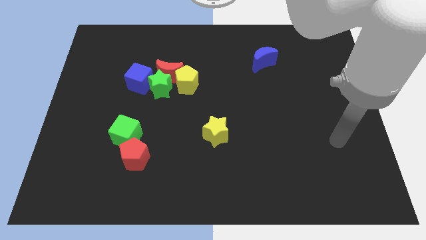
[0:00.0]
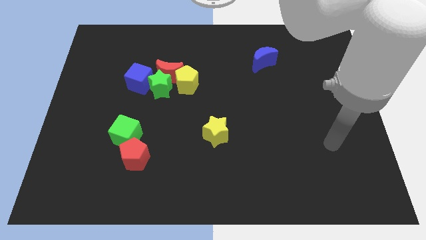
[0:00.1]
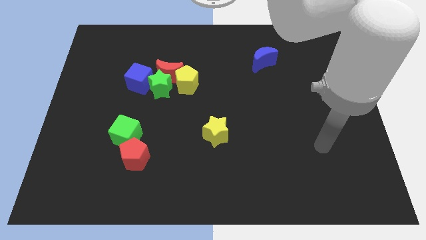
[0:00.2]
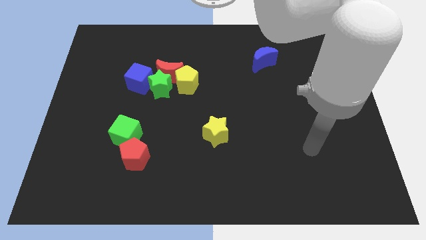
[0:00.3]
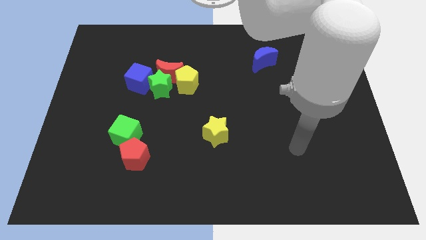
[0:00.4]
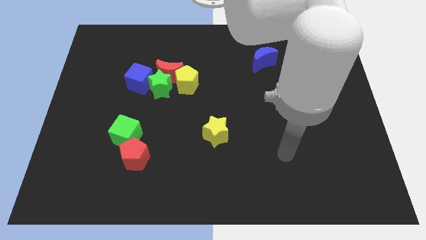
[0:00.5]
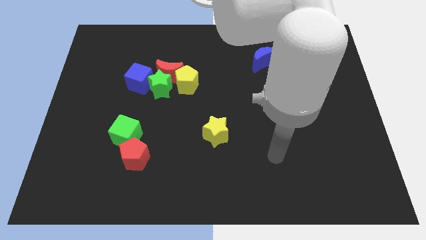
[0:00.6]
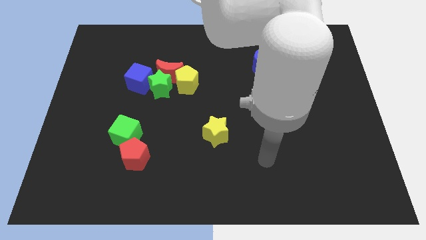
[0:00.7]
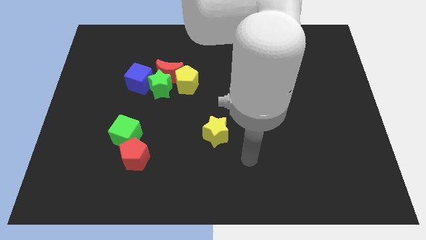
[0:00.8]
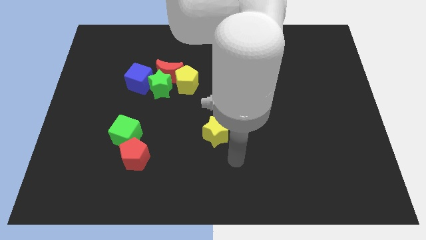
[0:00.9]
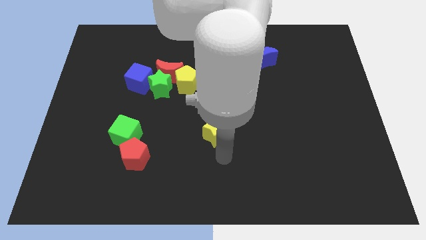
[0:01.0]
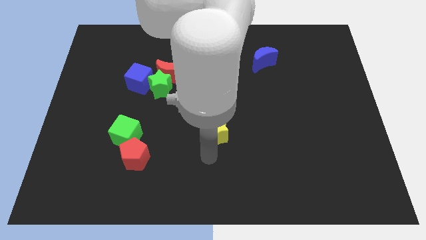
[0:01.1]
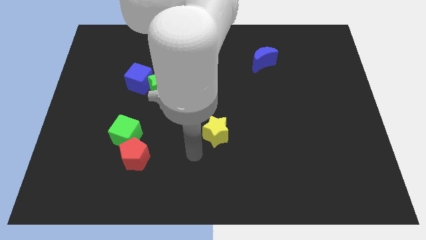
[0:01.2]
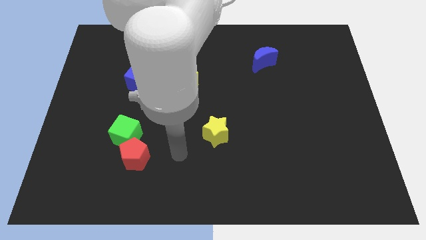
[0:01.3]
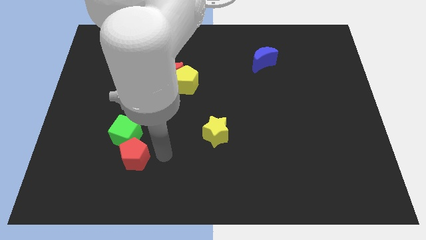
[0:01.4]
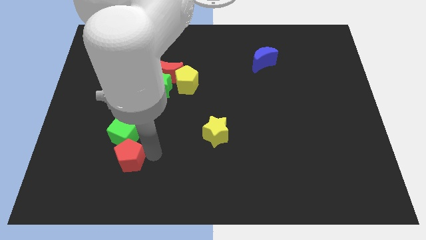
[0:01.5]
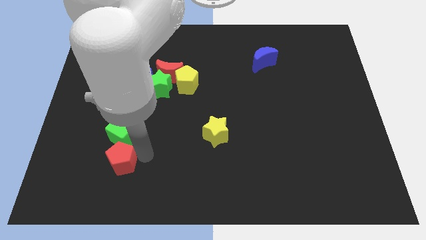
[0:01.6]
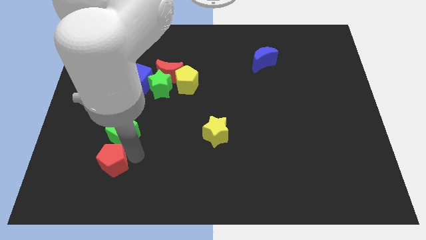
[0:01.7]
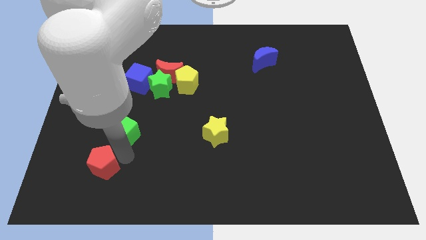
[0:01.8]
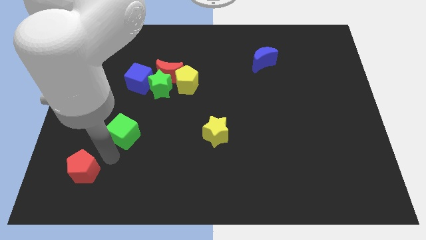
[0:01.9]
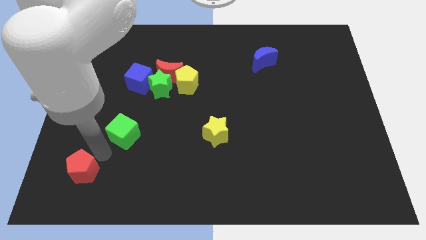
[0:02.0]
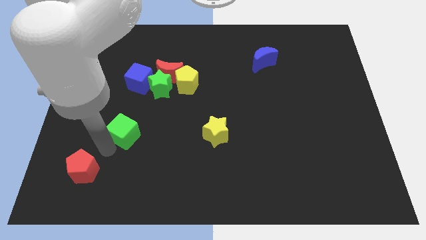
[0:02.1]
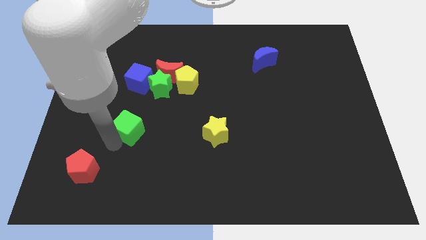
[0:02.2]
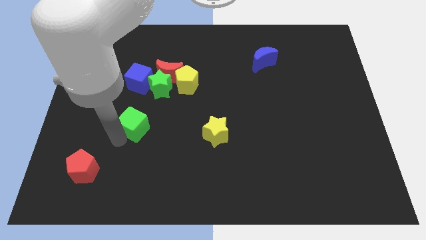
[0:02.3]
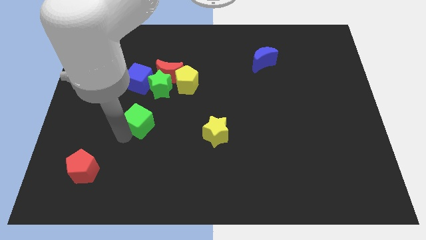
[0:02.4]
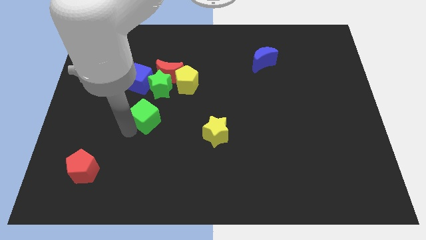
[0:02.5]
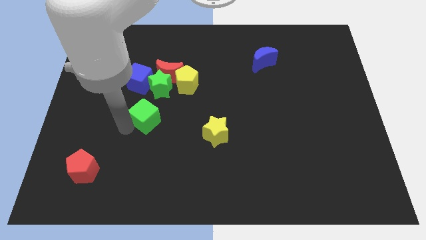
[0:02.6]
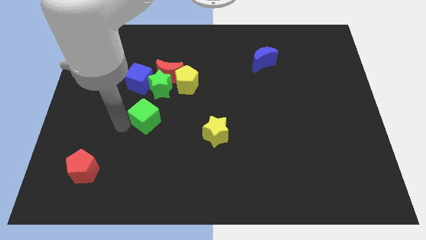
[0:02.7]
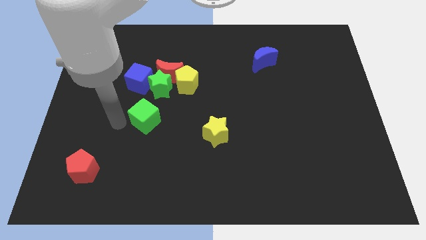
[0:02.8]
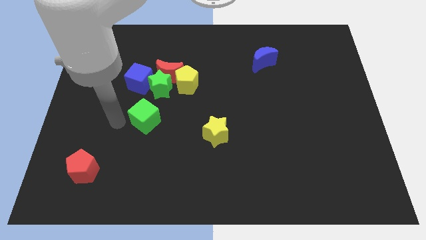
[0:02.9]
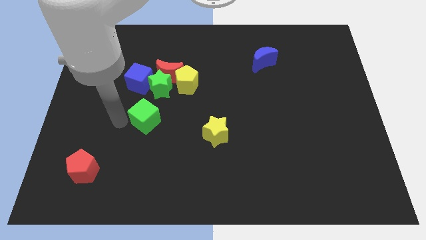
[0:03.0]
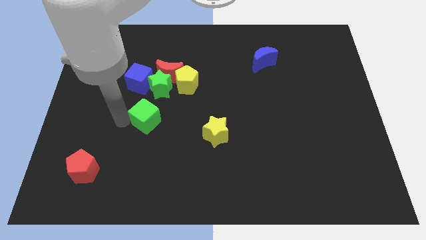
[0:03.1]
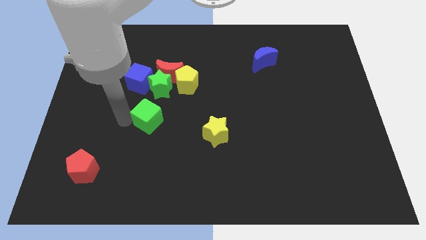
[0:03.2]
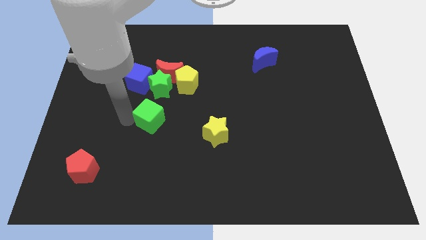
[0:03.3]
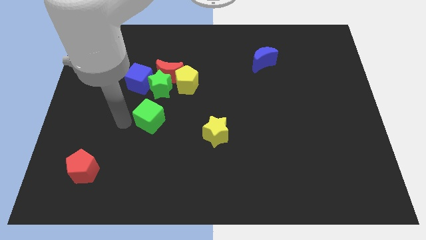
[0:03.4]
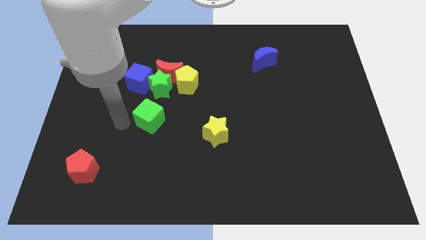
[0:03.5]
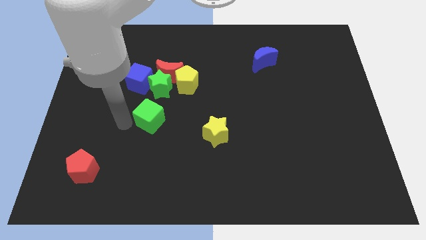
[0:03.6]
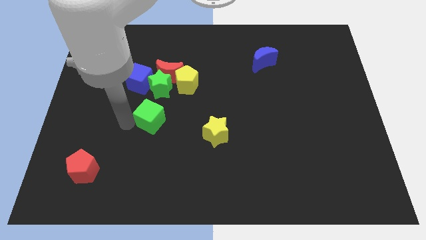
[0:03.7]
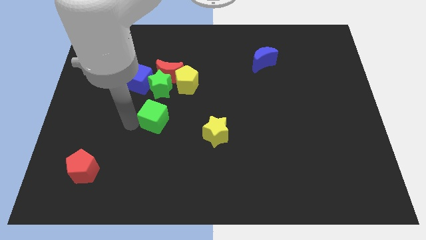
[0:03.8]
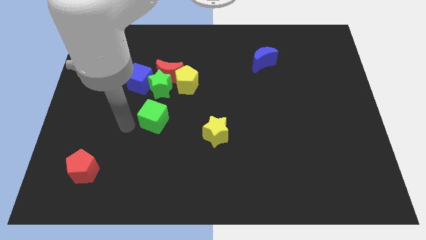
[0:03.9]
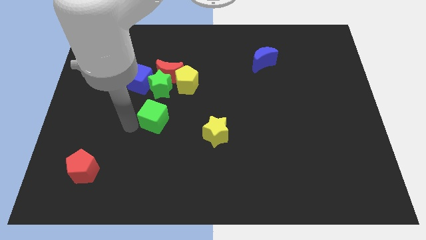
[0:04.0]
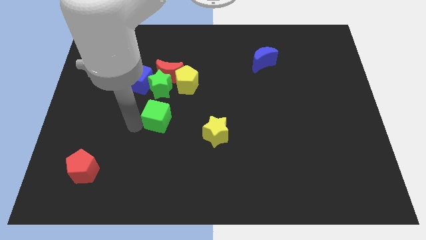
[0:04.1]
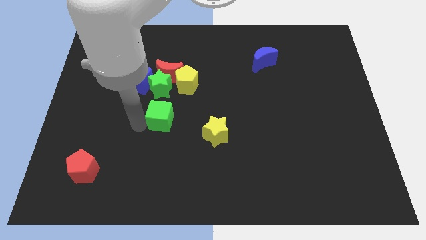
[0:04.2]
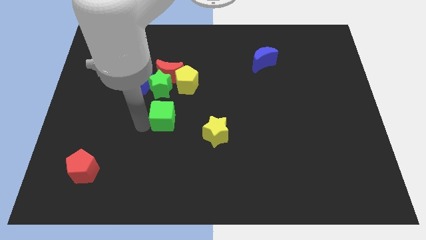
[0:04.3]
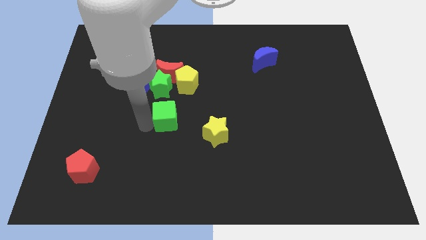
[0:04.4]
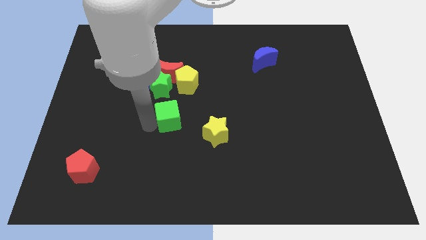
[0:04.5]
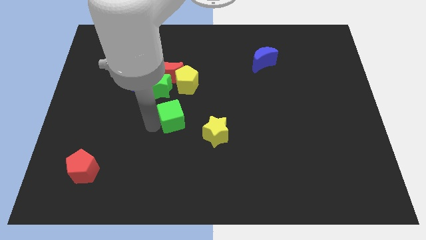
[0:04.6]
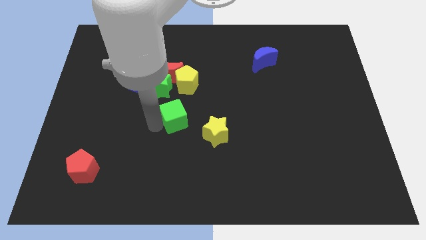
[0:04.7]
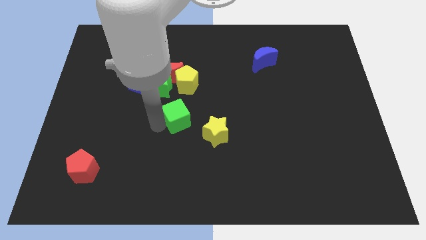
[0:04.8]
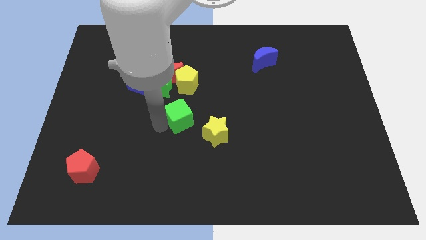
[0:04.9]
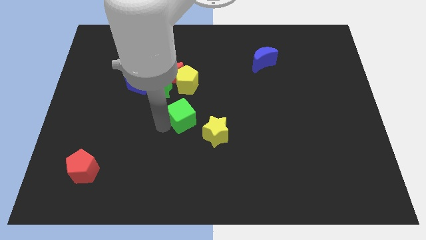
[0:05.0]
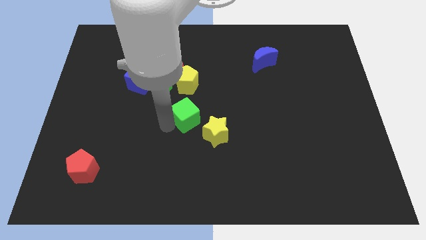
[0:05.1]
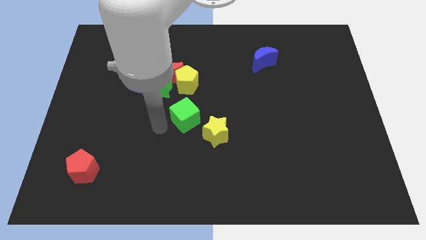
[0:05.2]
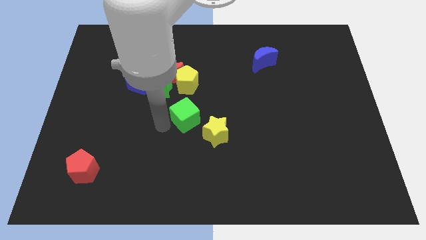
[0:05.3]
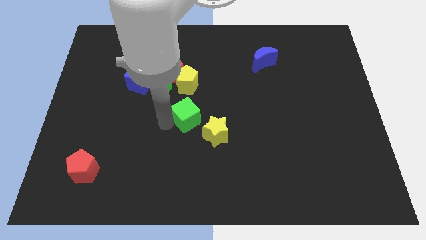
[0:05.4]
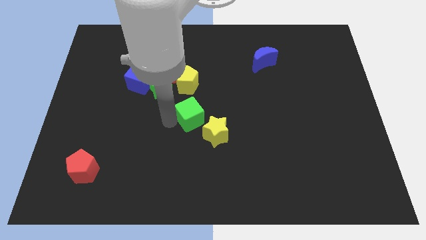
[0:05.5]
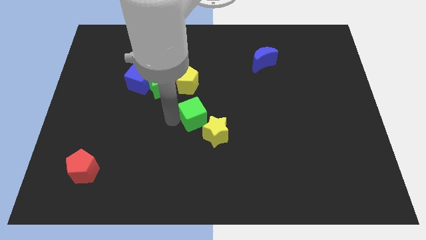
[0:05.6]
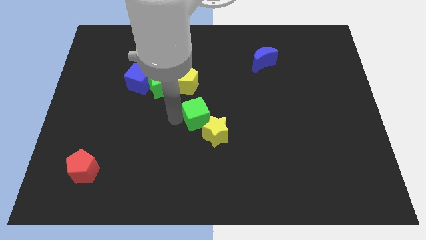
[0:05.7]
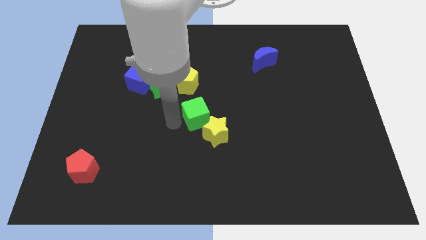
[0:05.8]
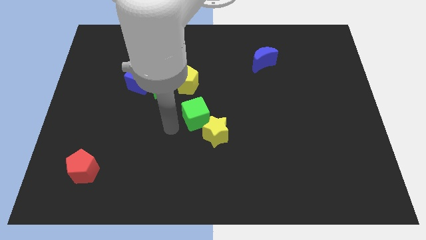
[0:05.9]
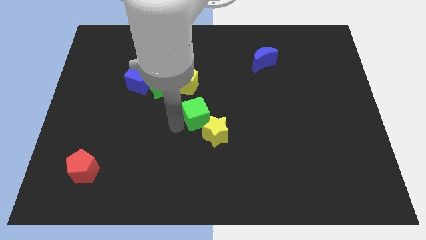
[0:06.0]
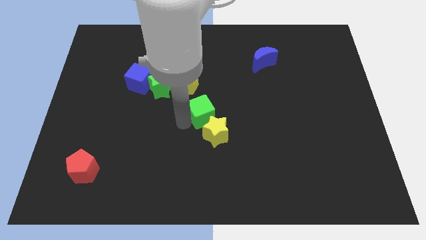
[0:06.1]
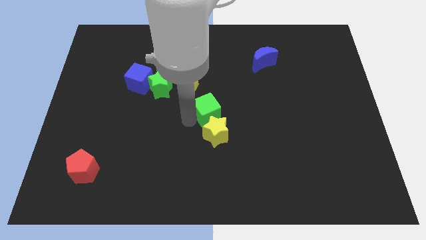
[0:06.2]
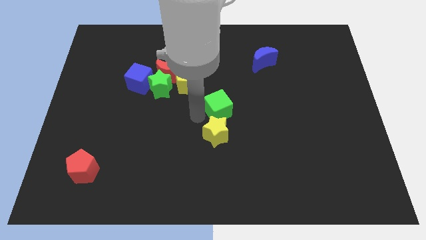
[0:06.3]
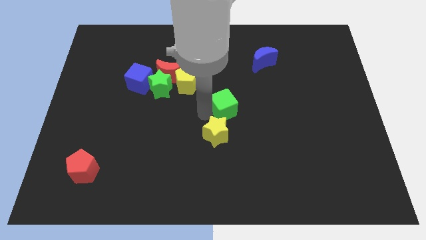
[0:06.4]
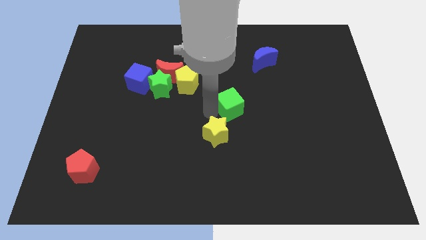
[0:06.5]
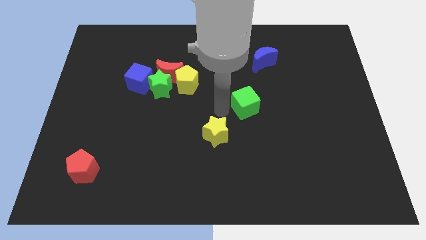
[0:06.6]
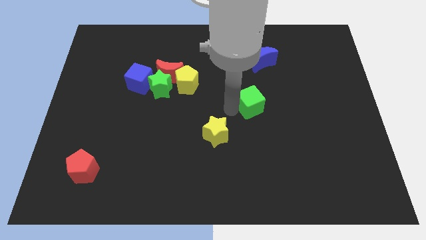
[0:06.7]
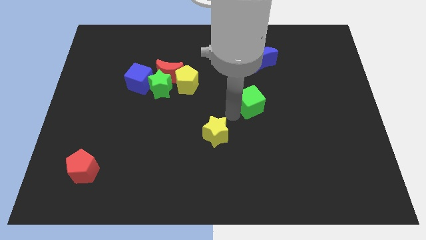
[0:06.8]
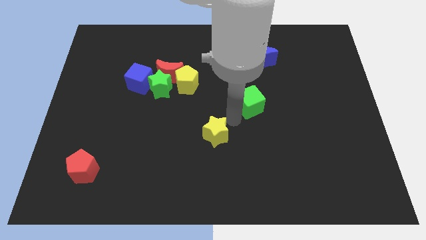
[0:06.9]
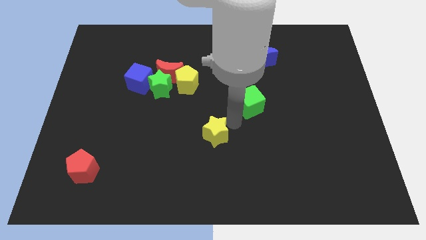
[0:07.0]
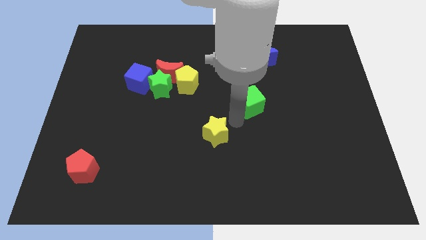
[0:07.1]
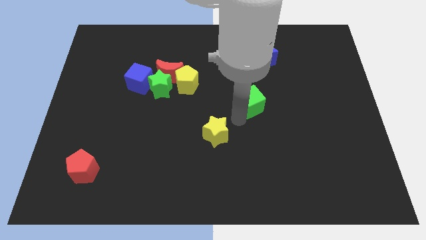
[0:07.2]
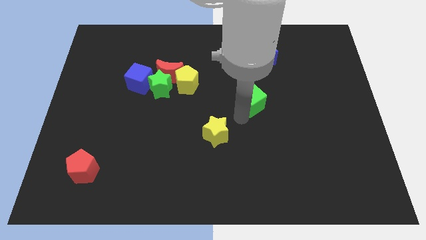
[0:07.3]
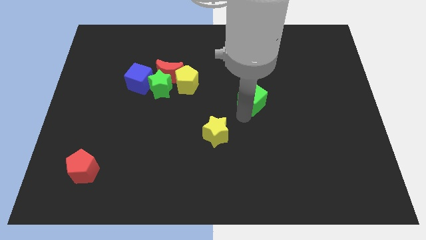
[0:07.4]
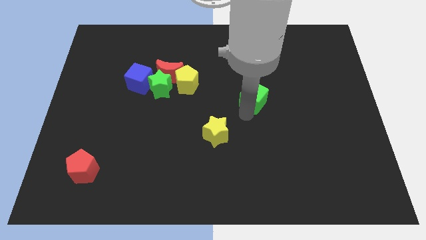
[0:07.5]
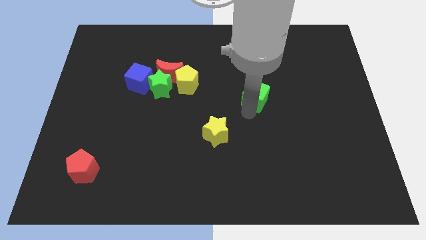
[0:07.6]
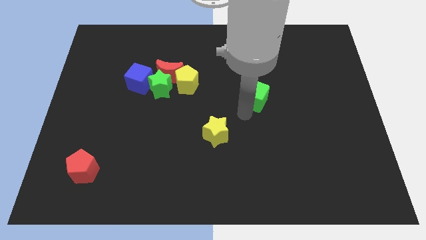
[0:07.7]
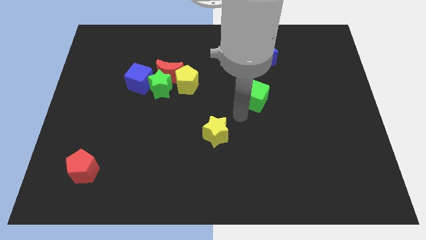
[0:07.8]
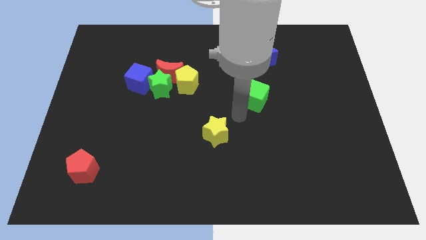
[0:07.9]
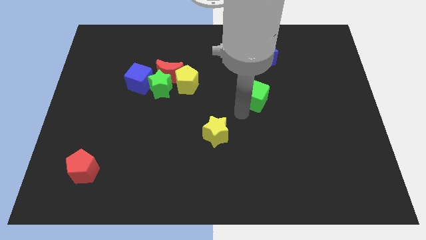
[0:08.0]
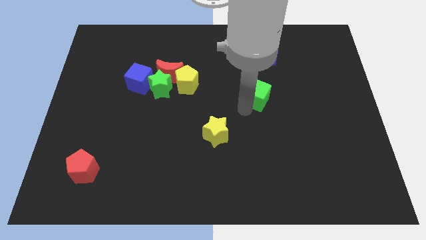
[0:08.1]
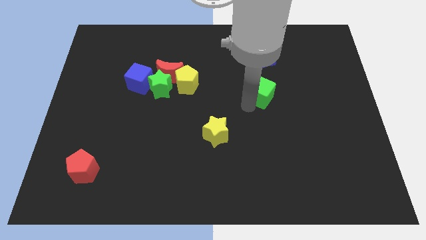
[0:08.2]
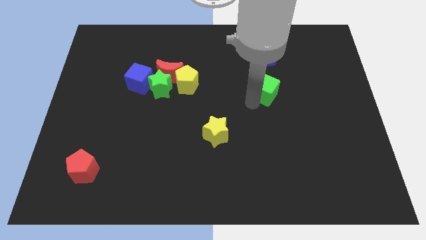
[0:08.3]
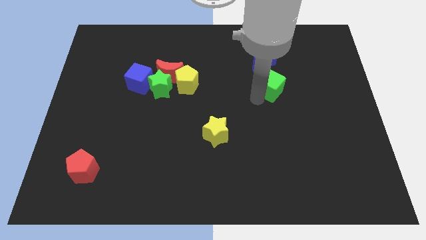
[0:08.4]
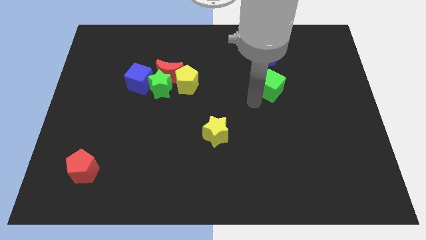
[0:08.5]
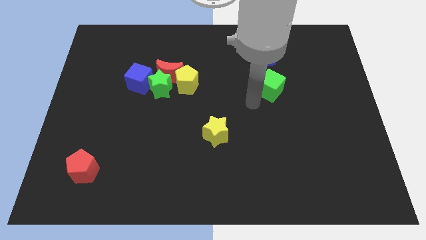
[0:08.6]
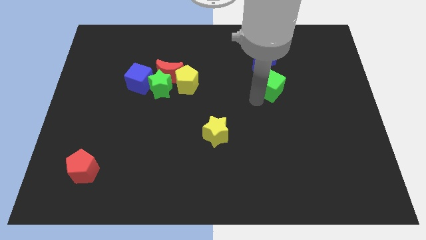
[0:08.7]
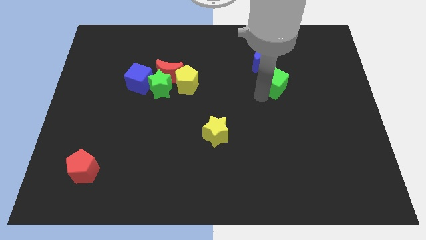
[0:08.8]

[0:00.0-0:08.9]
put the green cube diagonally down and to the right of the blue moon
